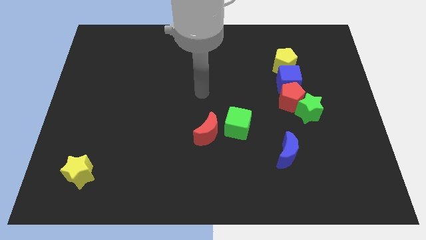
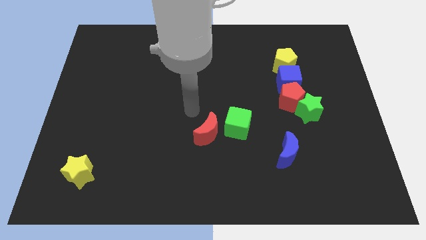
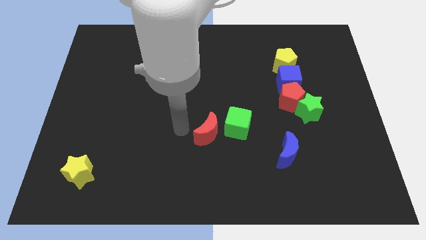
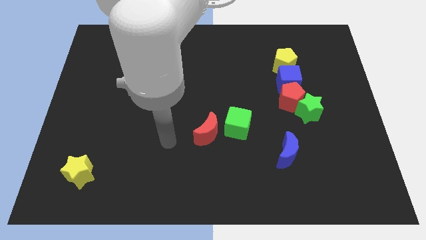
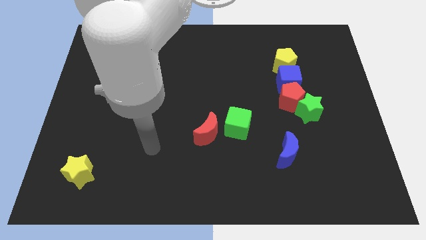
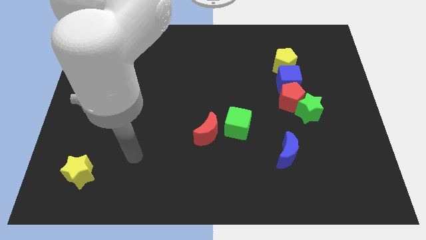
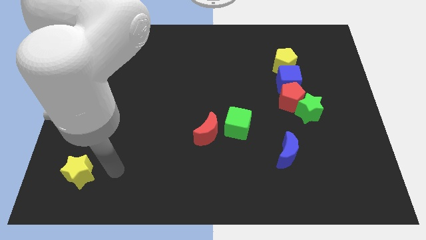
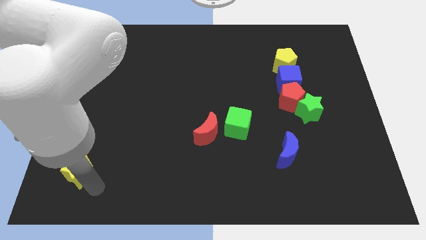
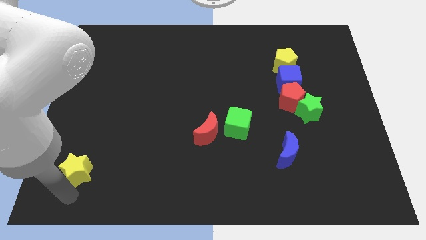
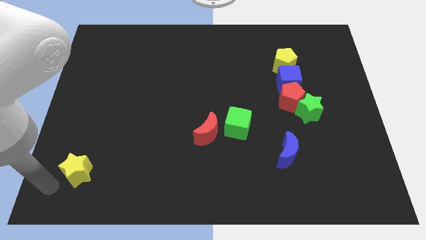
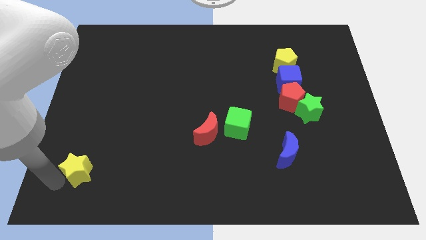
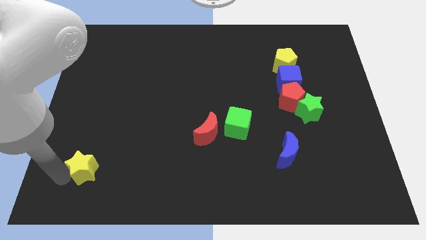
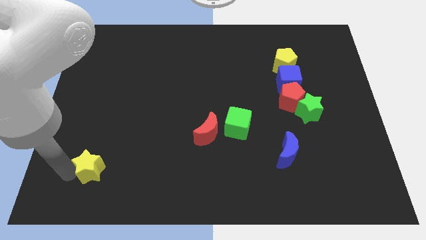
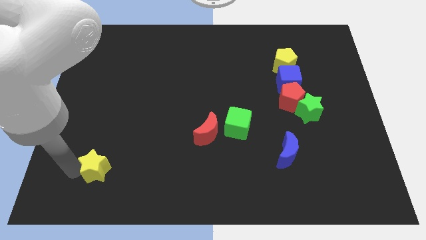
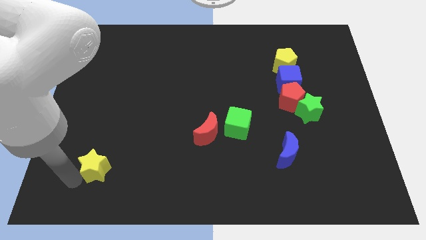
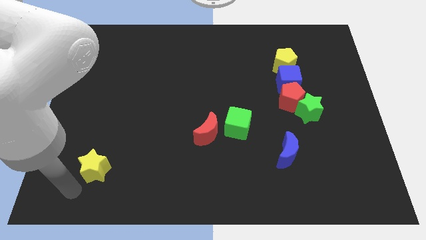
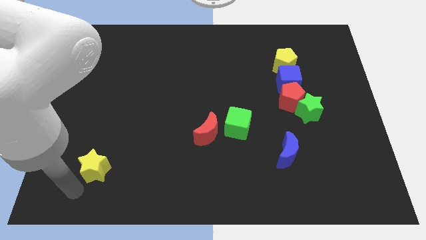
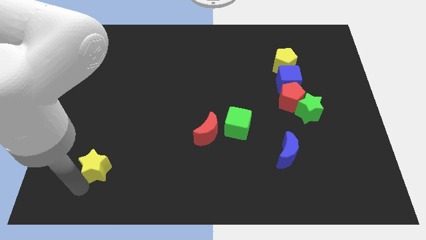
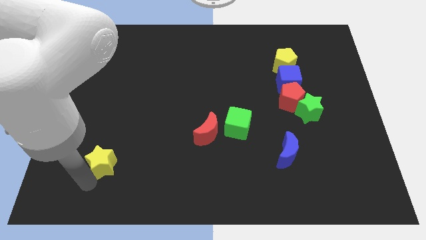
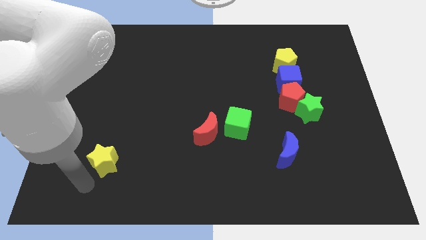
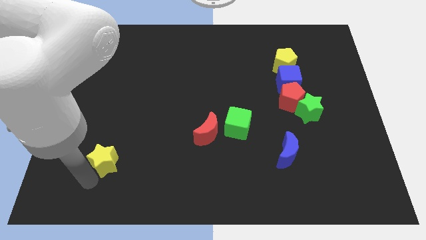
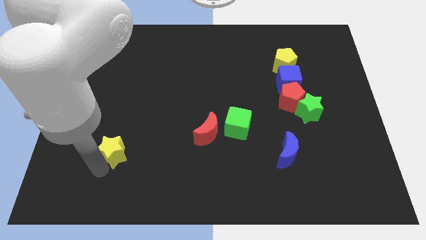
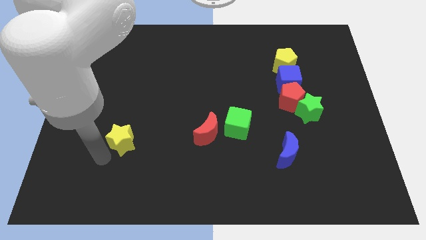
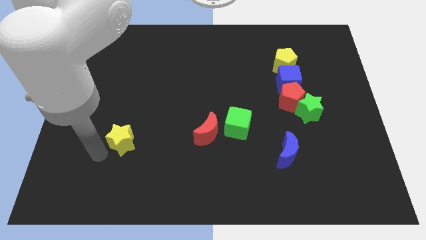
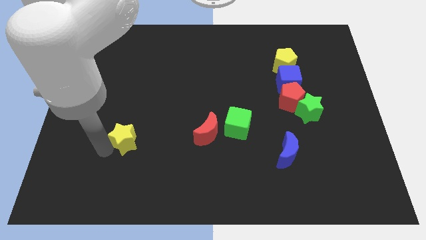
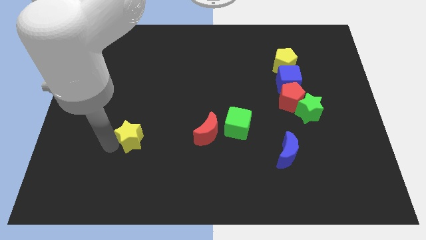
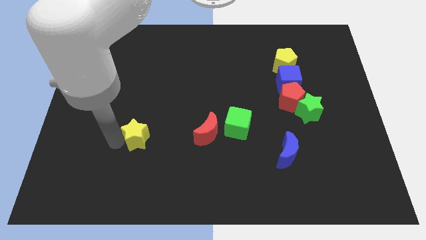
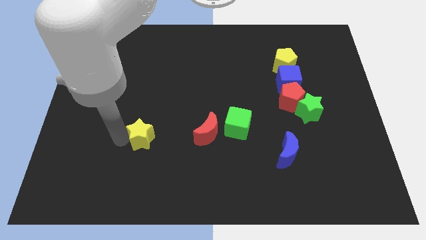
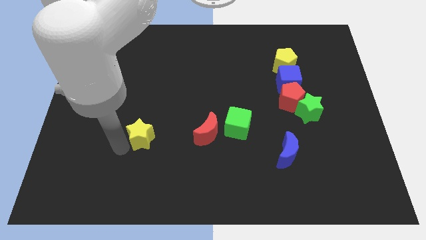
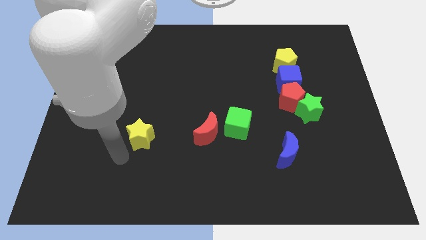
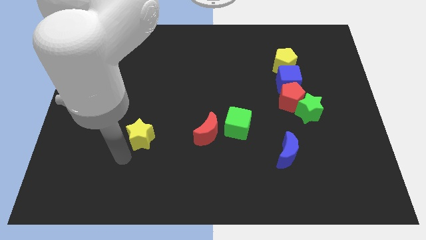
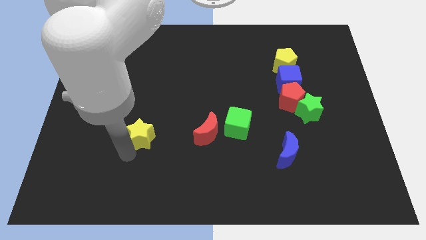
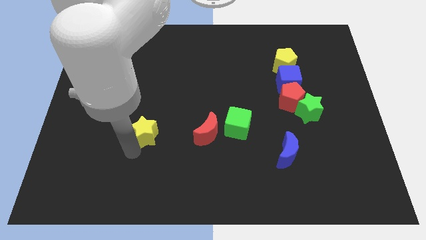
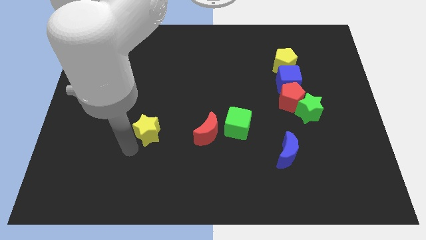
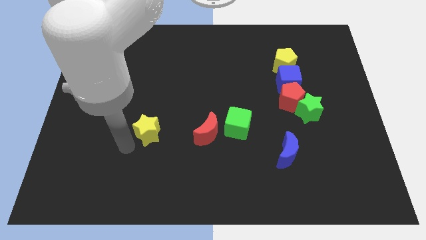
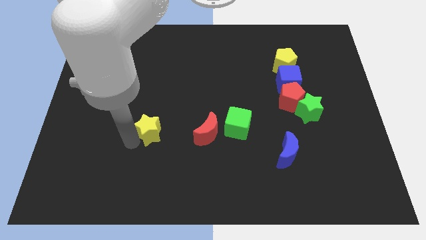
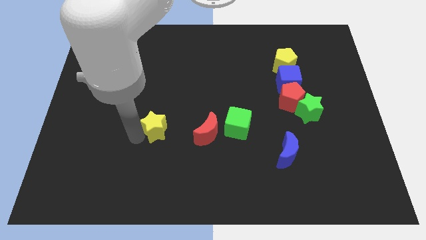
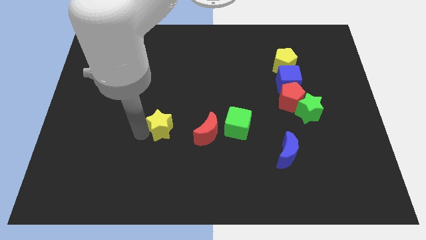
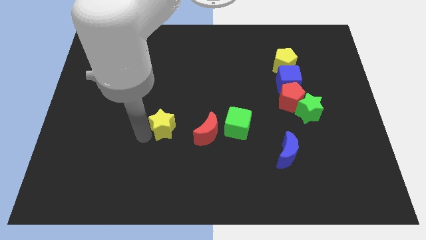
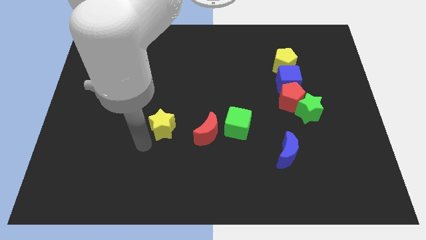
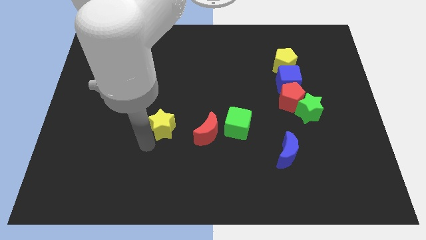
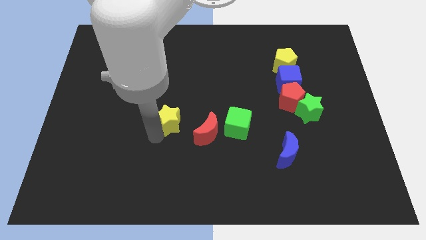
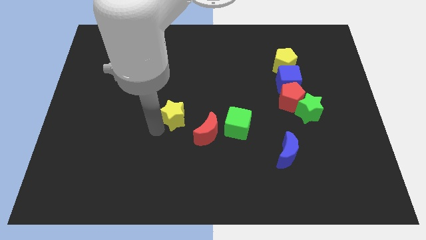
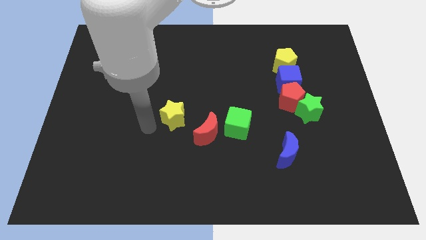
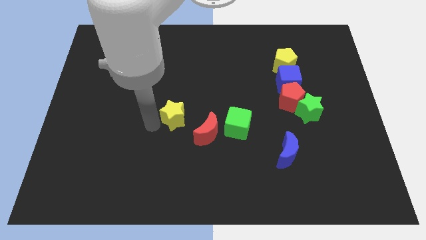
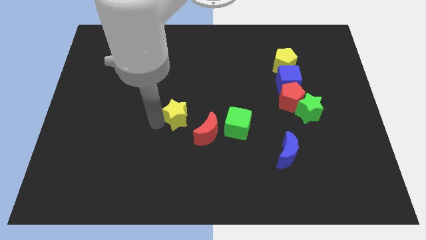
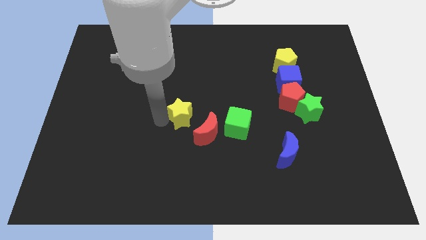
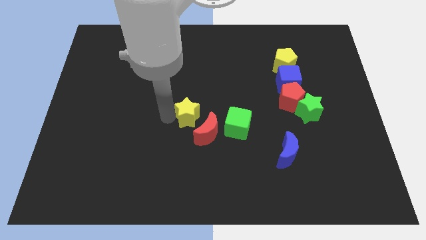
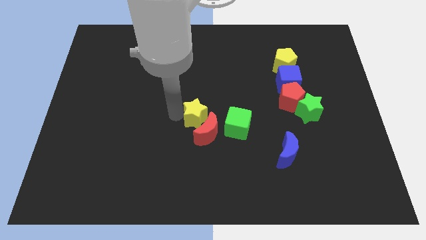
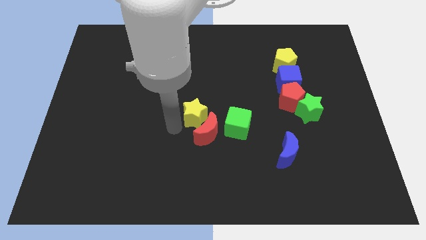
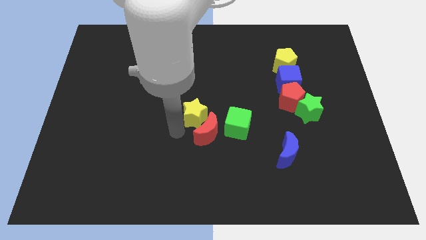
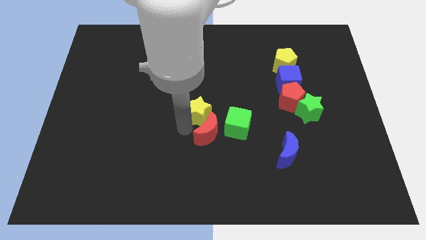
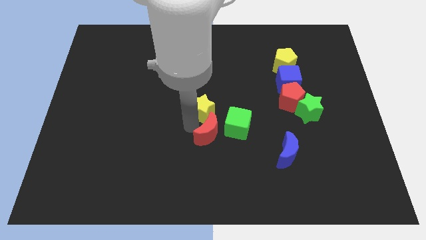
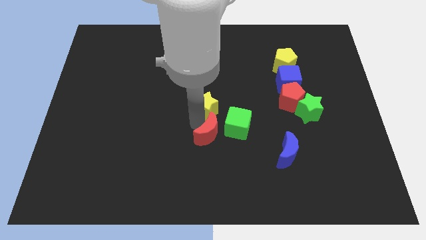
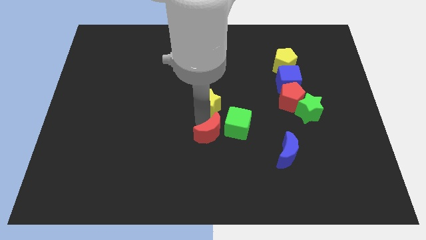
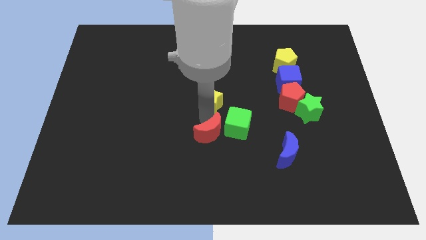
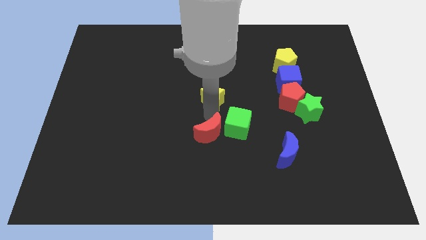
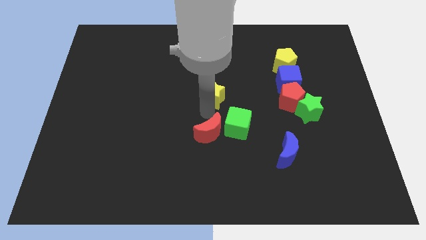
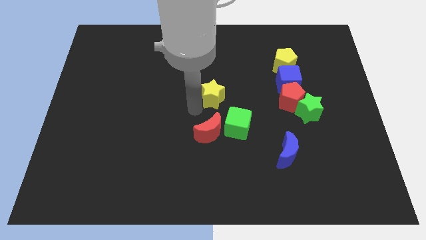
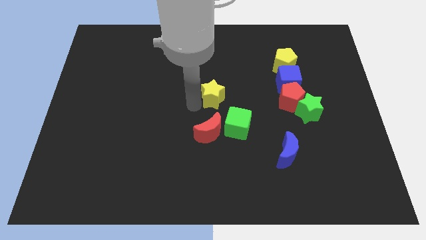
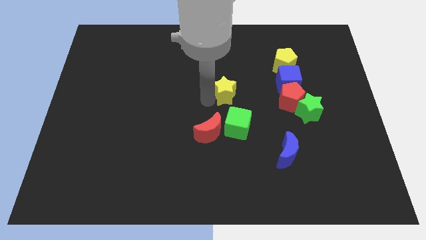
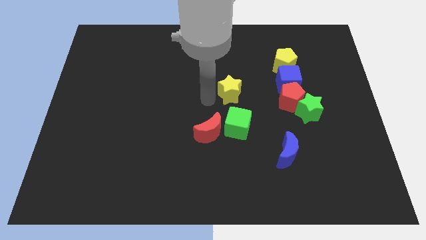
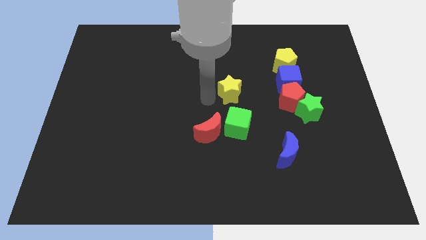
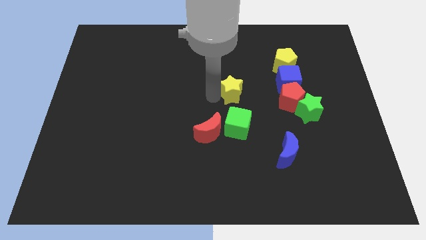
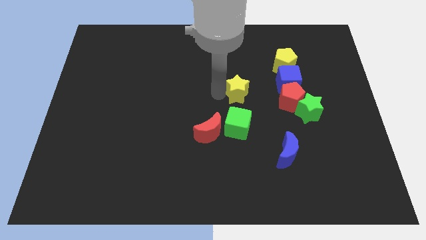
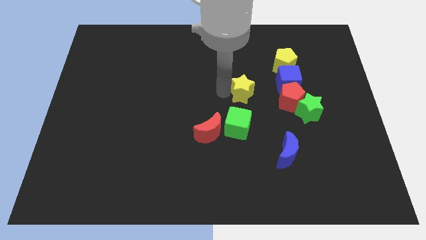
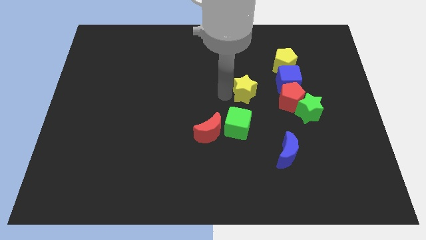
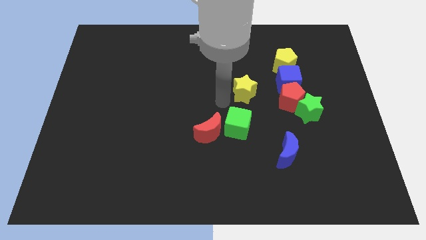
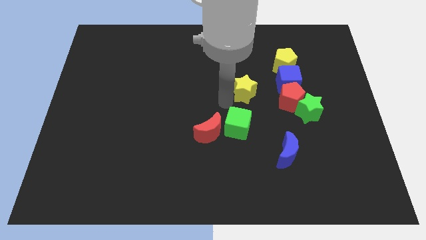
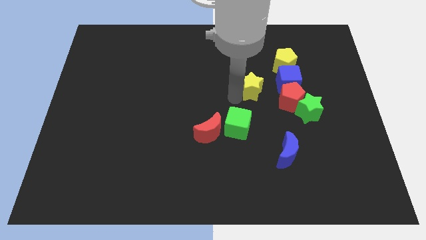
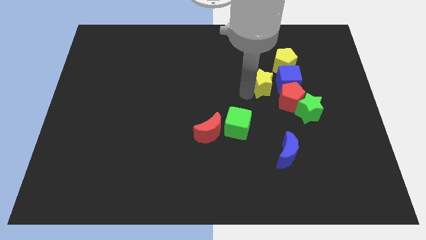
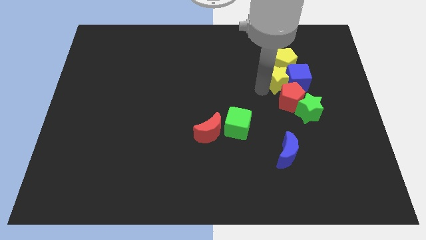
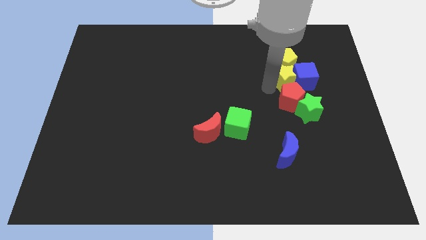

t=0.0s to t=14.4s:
move the yellow star next to the yellow pentagon
